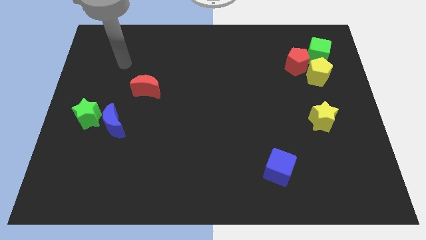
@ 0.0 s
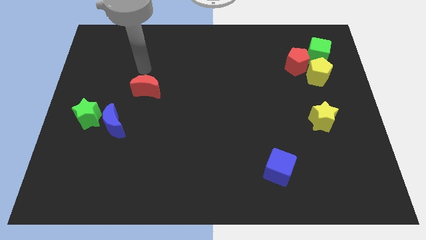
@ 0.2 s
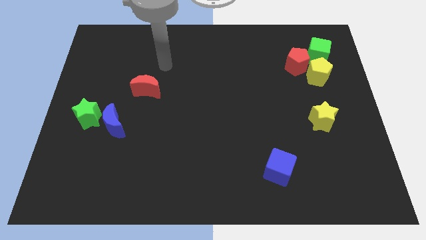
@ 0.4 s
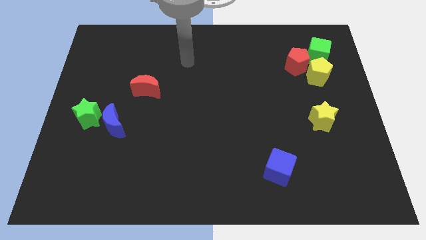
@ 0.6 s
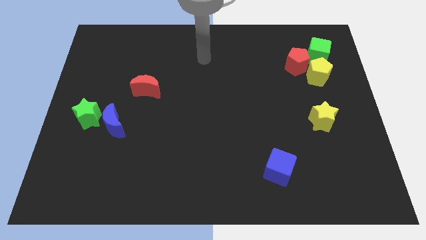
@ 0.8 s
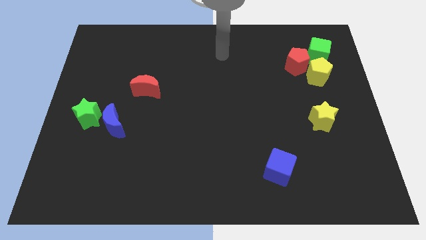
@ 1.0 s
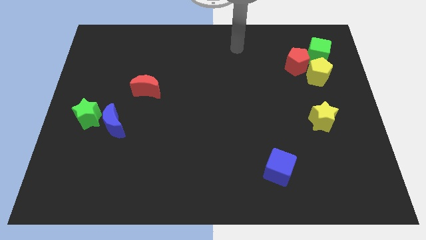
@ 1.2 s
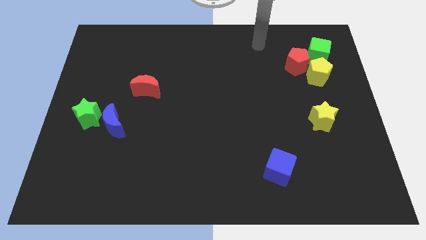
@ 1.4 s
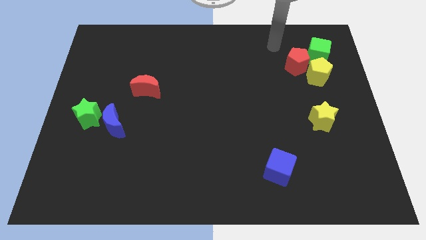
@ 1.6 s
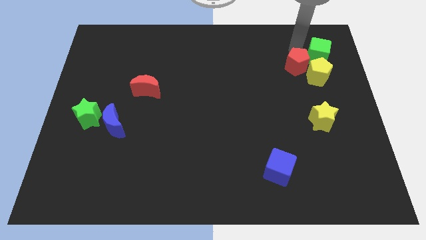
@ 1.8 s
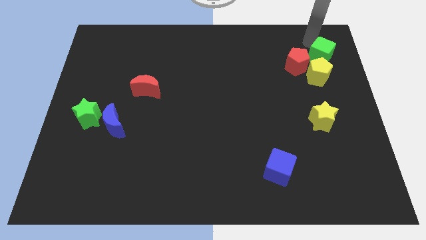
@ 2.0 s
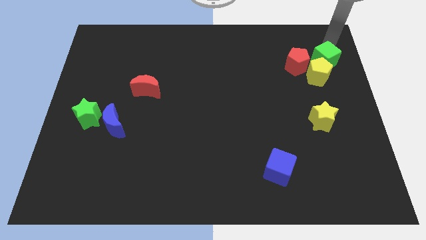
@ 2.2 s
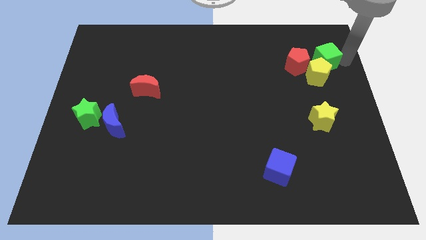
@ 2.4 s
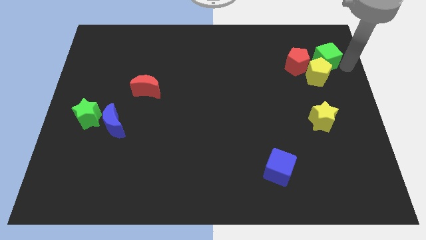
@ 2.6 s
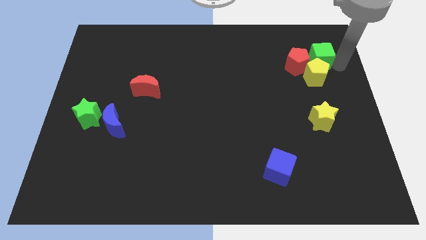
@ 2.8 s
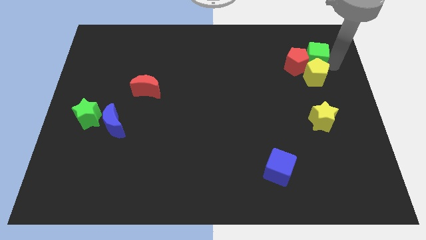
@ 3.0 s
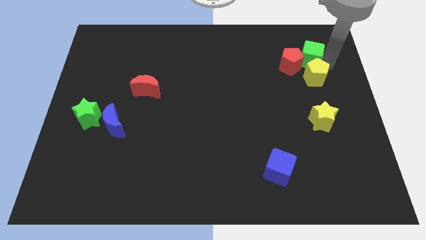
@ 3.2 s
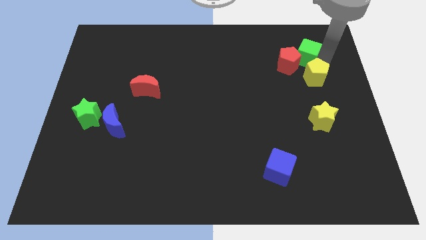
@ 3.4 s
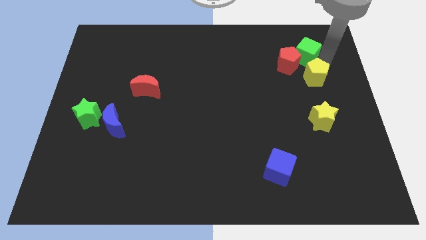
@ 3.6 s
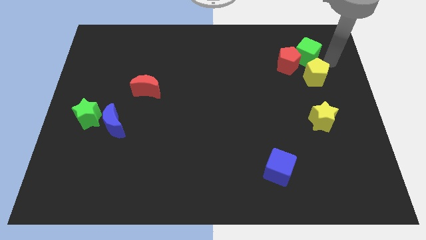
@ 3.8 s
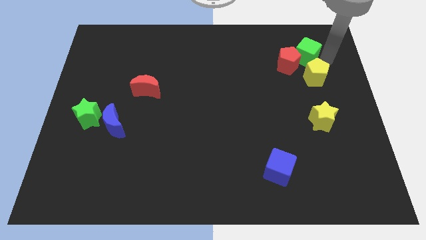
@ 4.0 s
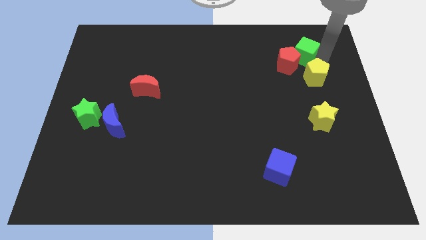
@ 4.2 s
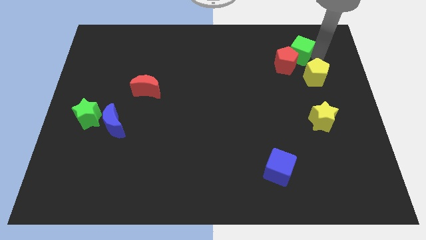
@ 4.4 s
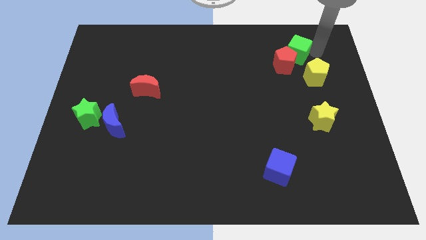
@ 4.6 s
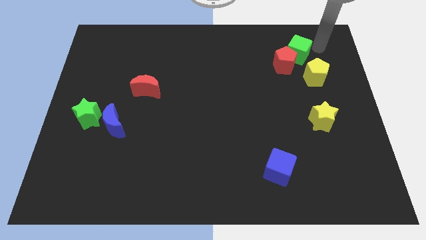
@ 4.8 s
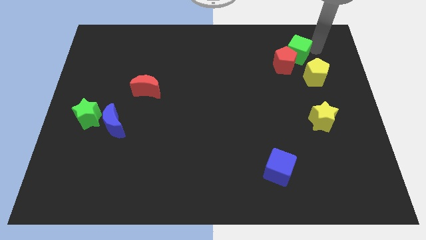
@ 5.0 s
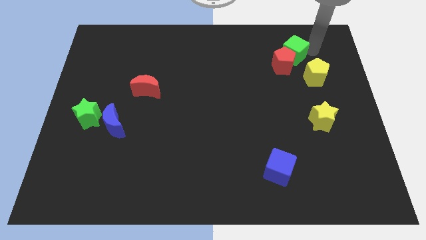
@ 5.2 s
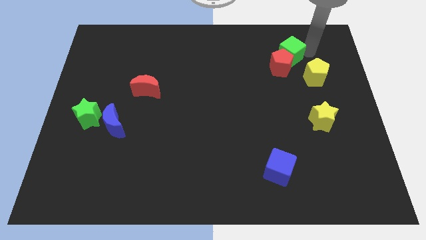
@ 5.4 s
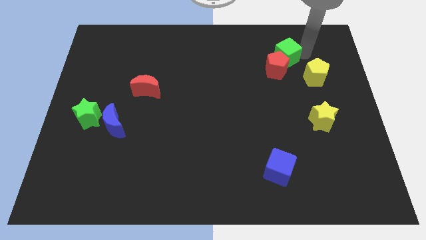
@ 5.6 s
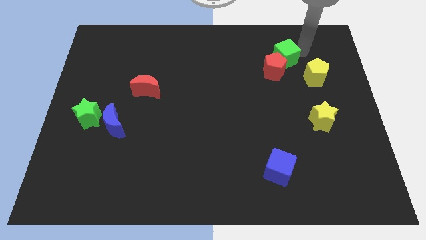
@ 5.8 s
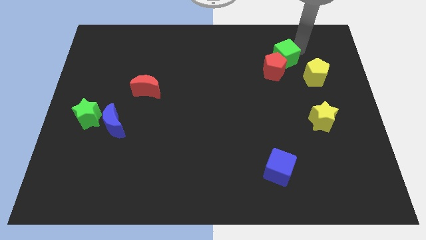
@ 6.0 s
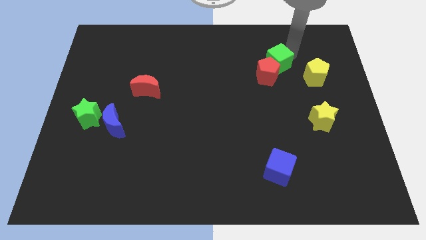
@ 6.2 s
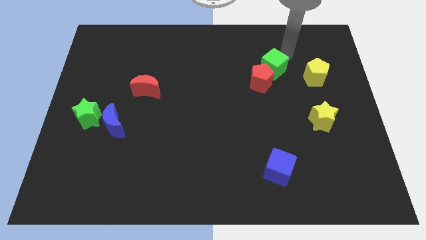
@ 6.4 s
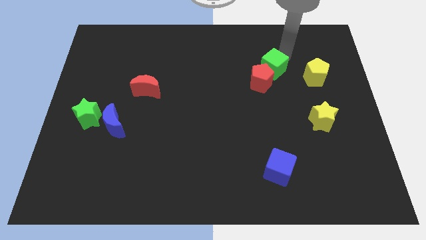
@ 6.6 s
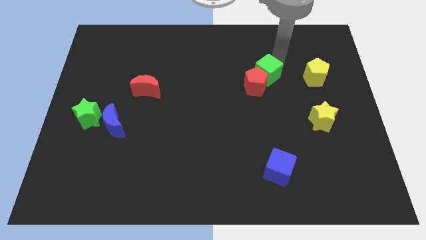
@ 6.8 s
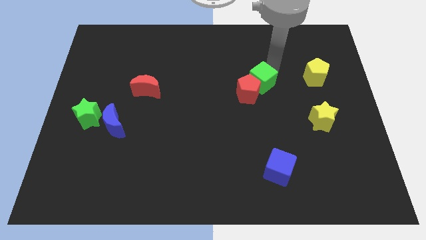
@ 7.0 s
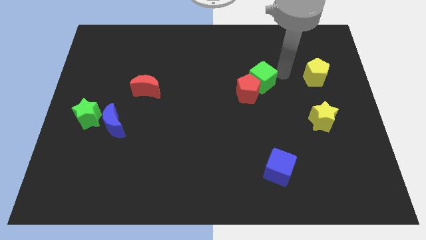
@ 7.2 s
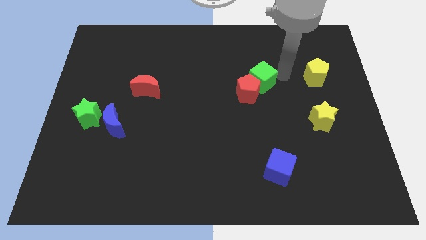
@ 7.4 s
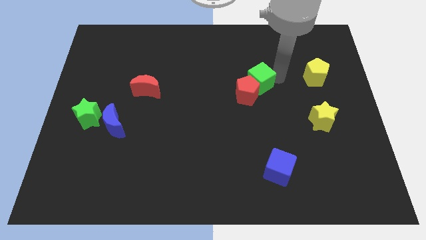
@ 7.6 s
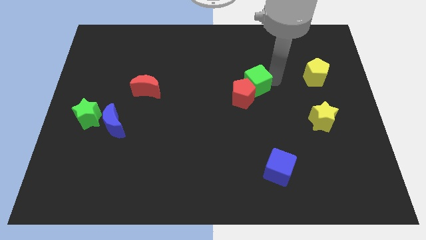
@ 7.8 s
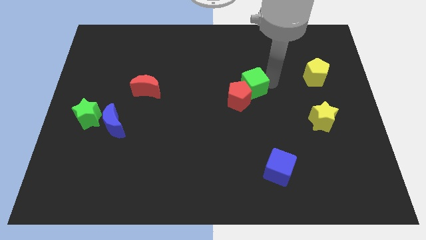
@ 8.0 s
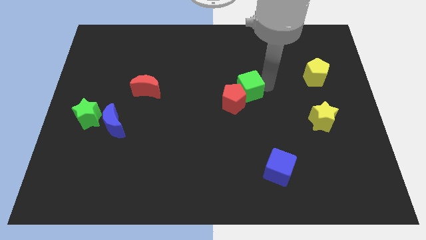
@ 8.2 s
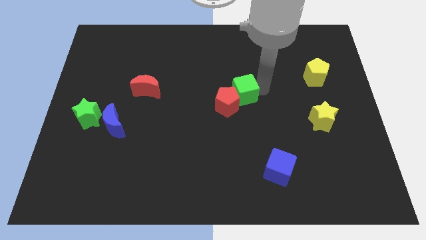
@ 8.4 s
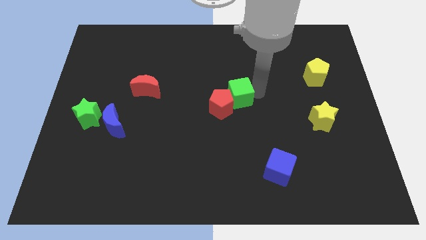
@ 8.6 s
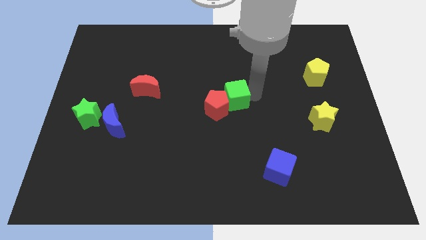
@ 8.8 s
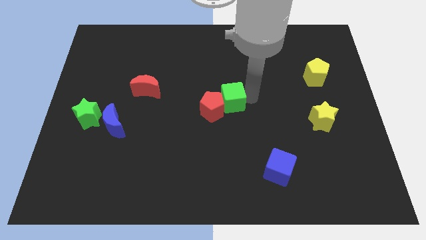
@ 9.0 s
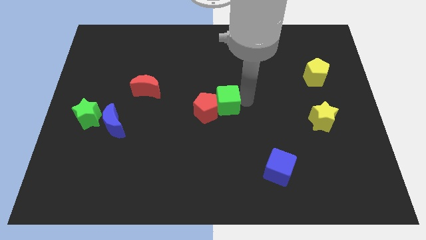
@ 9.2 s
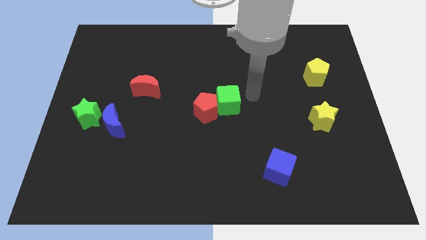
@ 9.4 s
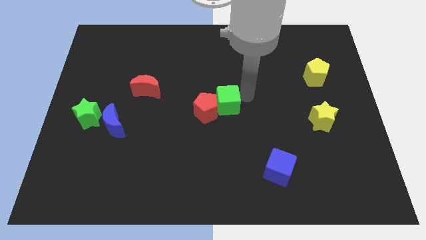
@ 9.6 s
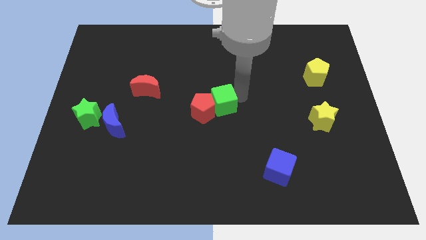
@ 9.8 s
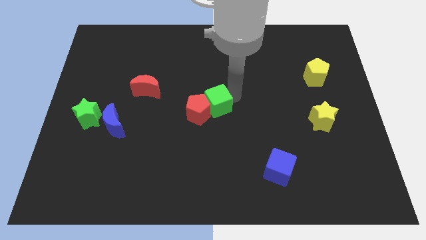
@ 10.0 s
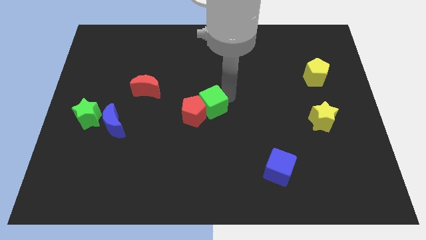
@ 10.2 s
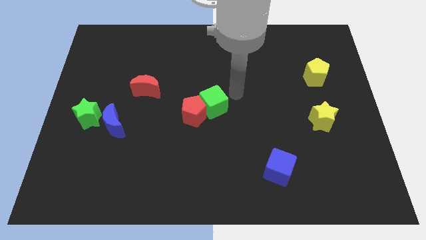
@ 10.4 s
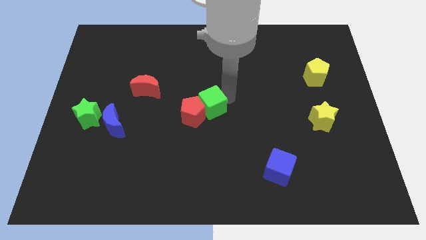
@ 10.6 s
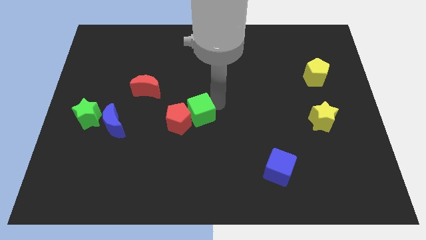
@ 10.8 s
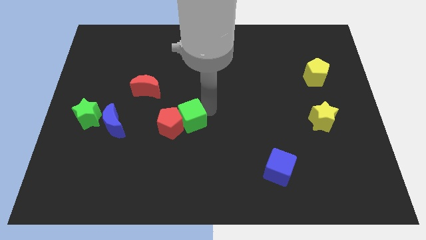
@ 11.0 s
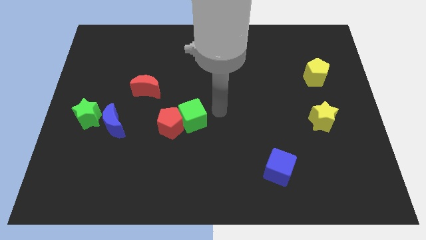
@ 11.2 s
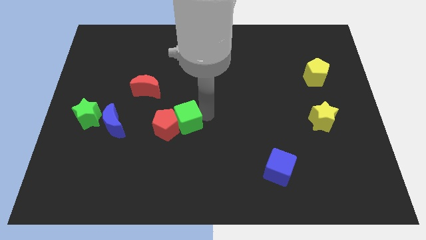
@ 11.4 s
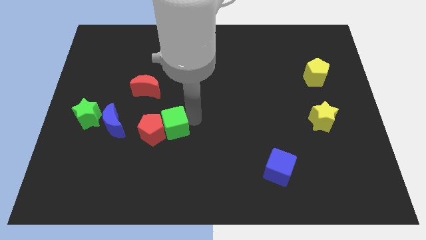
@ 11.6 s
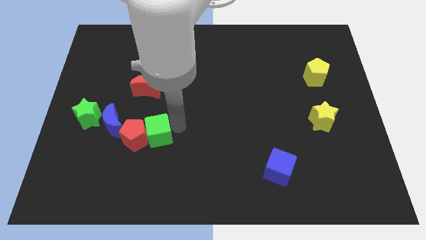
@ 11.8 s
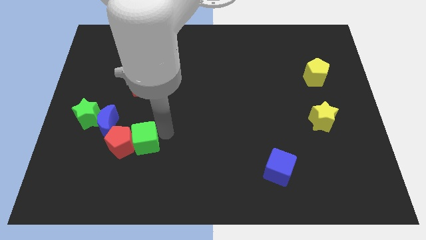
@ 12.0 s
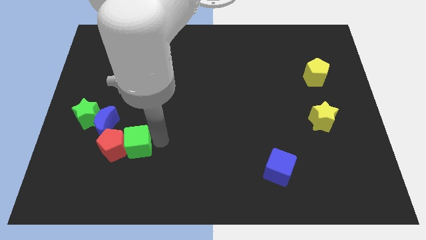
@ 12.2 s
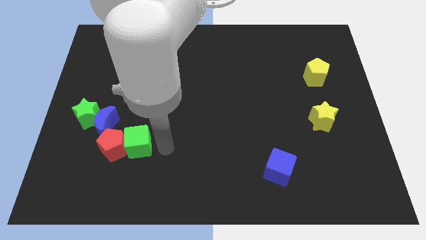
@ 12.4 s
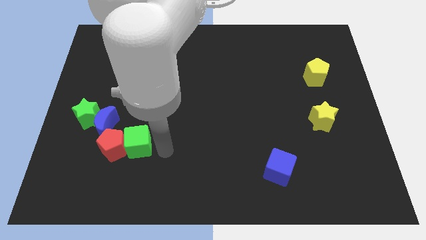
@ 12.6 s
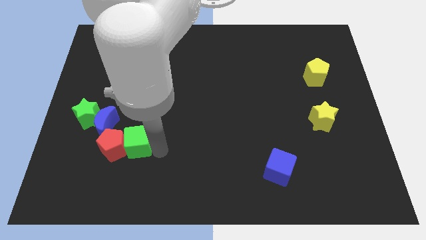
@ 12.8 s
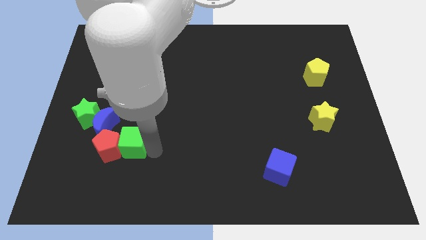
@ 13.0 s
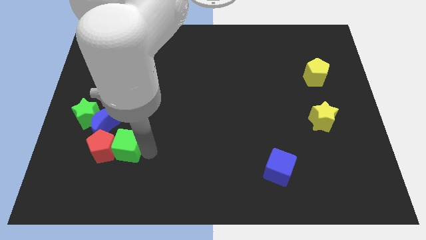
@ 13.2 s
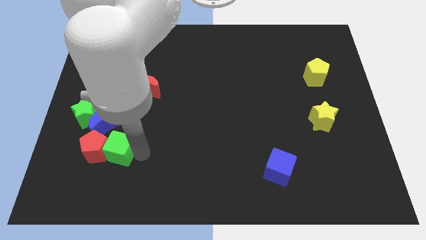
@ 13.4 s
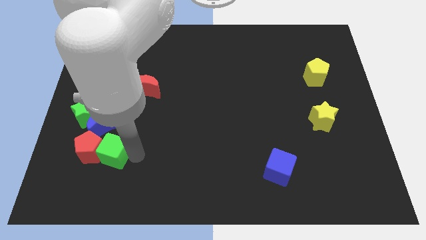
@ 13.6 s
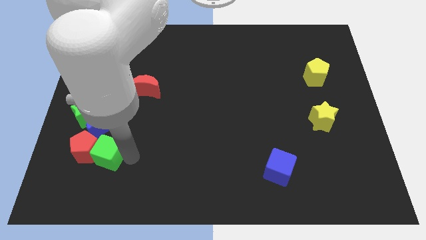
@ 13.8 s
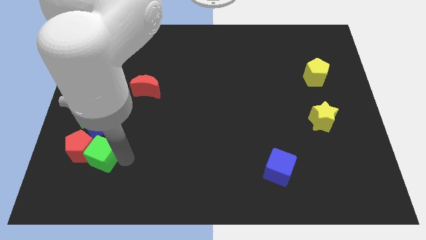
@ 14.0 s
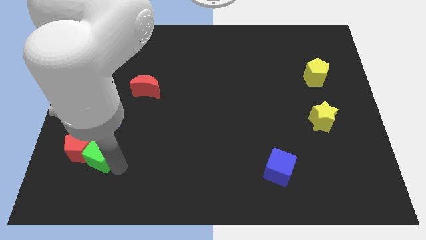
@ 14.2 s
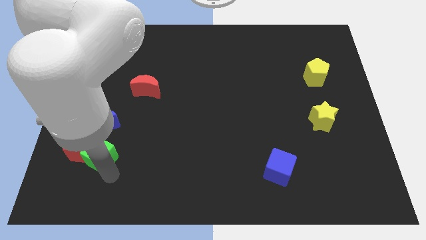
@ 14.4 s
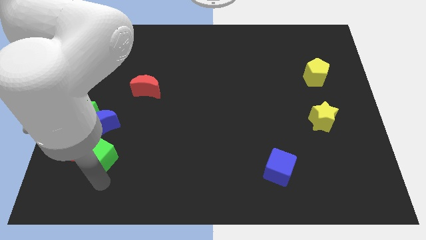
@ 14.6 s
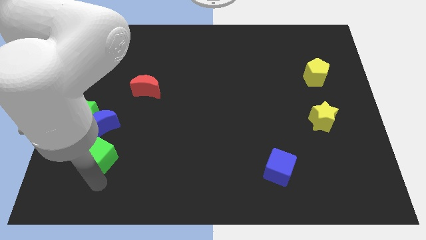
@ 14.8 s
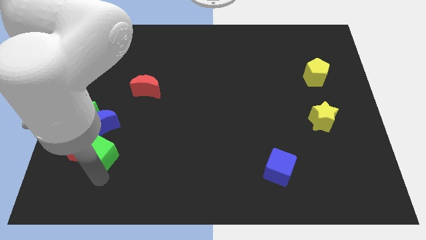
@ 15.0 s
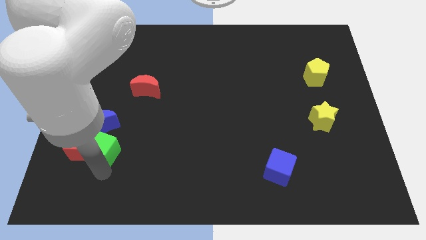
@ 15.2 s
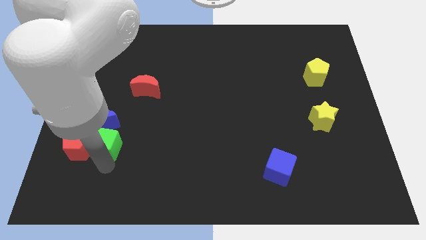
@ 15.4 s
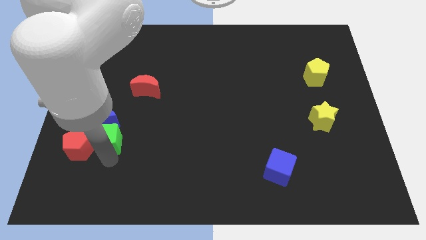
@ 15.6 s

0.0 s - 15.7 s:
put the green cube to the bottom left side of the blue moon
